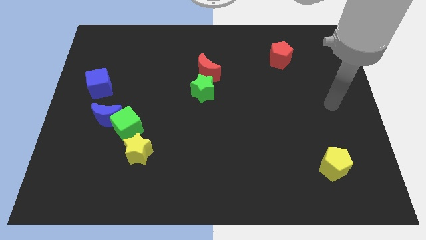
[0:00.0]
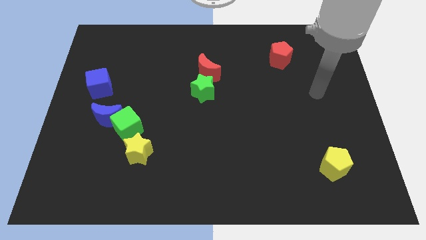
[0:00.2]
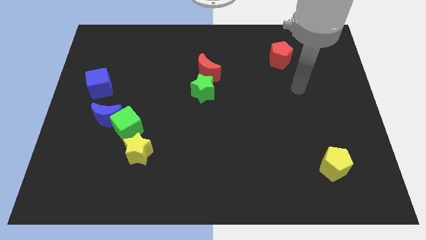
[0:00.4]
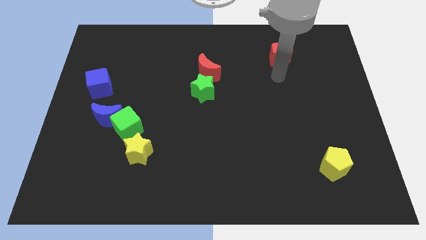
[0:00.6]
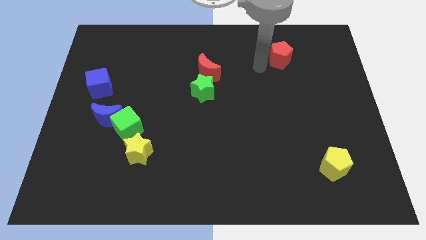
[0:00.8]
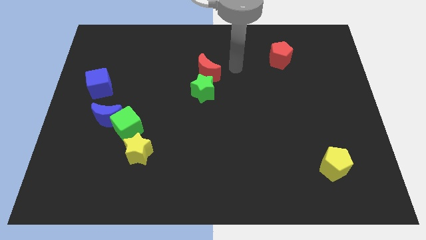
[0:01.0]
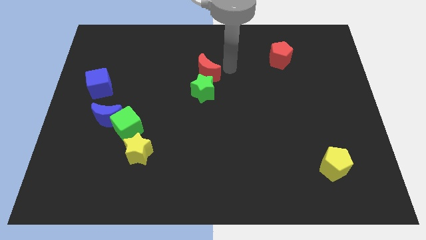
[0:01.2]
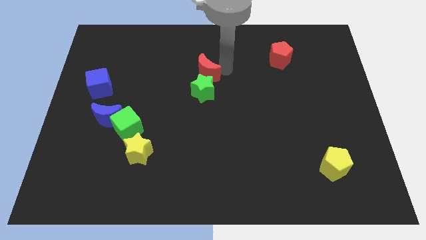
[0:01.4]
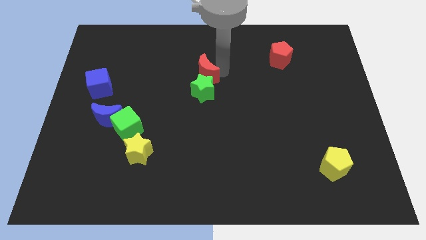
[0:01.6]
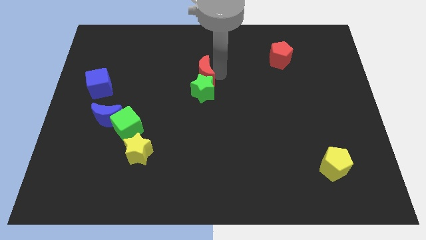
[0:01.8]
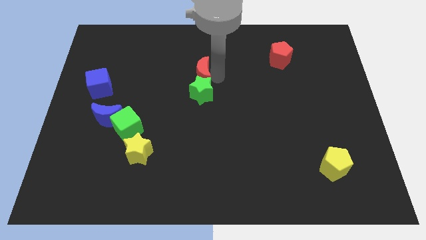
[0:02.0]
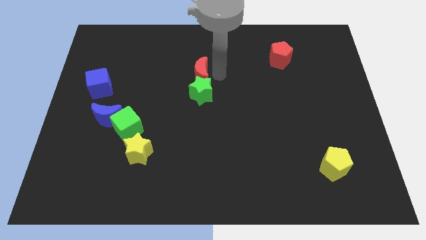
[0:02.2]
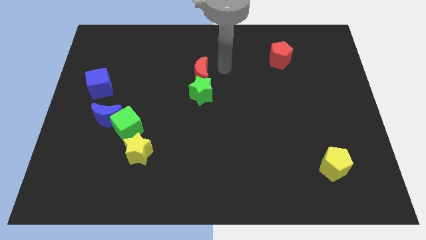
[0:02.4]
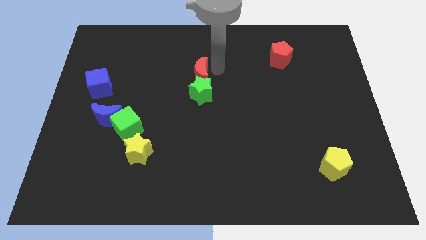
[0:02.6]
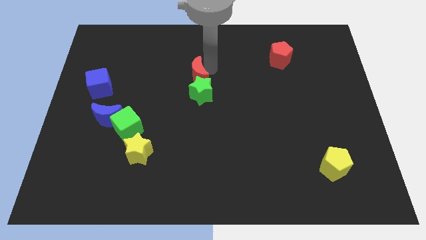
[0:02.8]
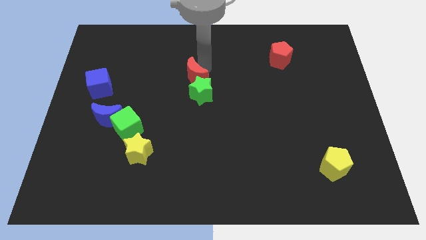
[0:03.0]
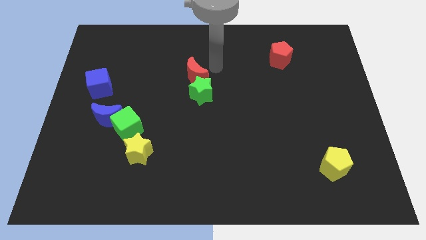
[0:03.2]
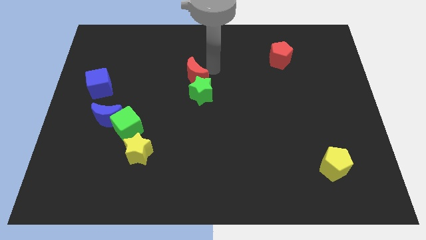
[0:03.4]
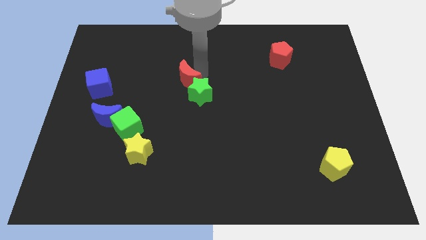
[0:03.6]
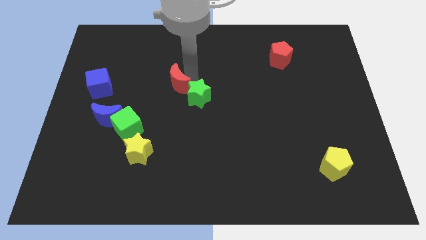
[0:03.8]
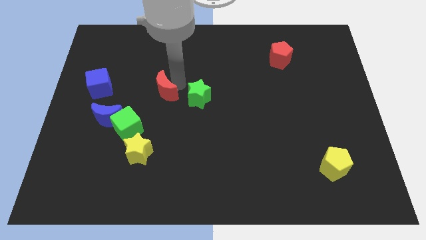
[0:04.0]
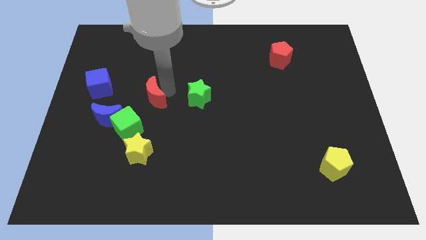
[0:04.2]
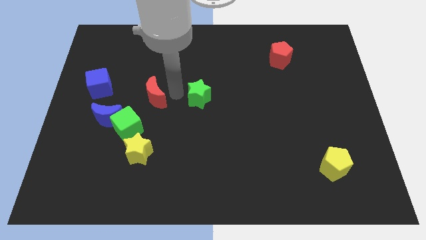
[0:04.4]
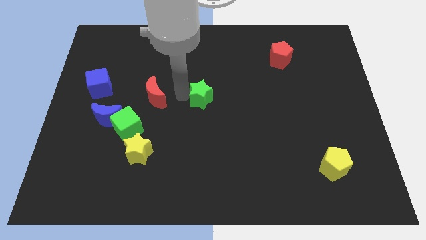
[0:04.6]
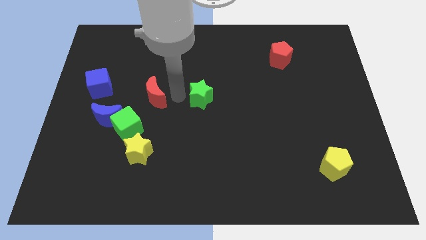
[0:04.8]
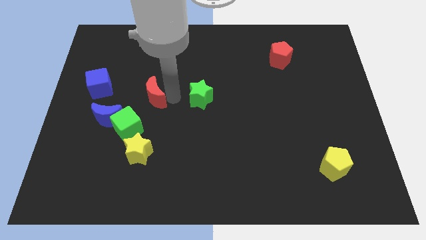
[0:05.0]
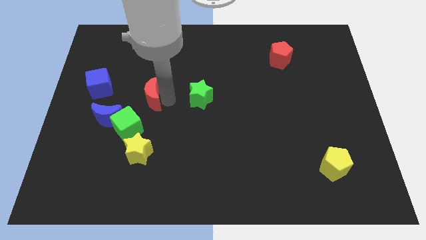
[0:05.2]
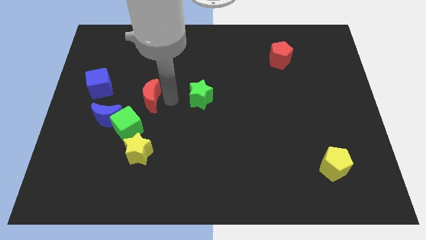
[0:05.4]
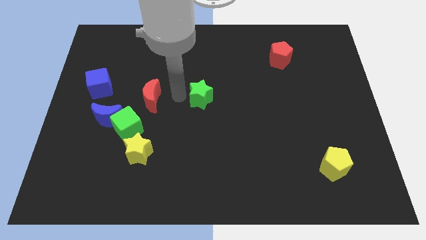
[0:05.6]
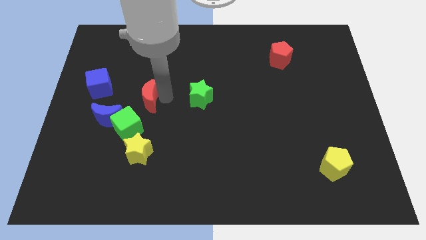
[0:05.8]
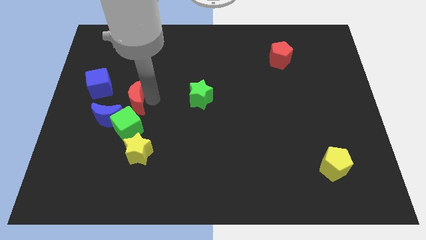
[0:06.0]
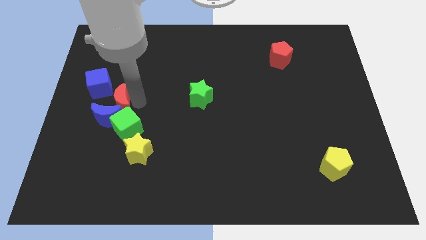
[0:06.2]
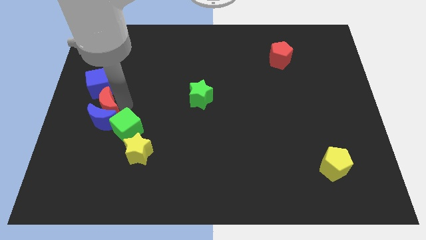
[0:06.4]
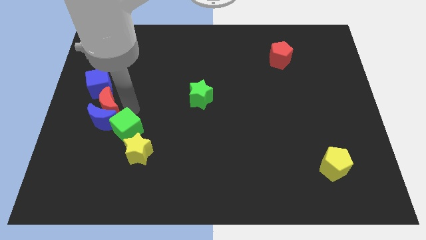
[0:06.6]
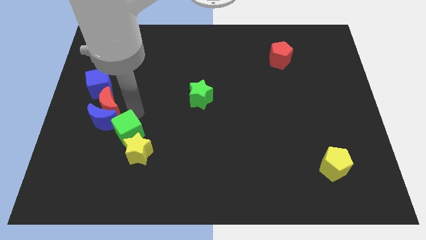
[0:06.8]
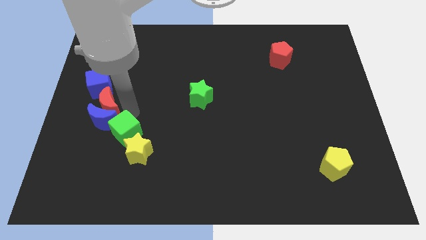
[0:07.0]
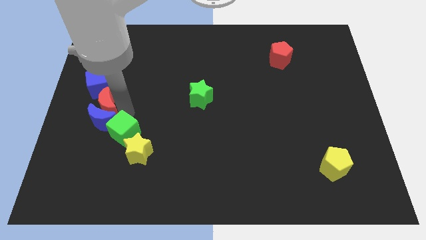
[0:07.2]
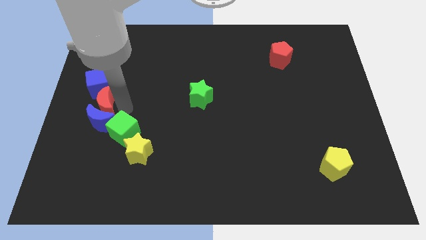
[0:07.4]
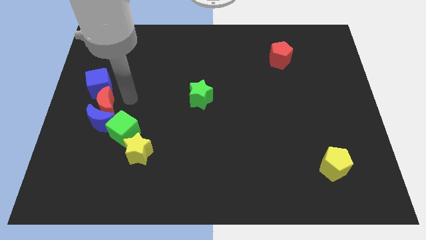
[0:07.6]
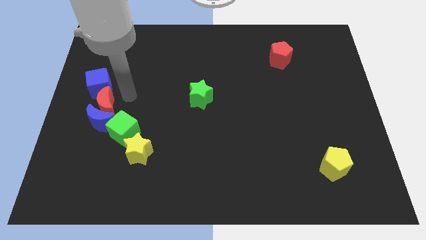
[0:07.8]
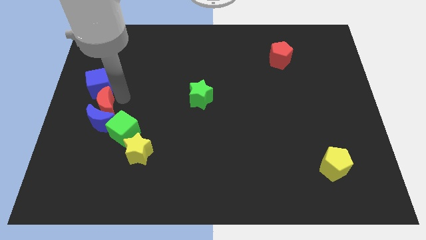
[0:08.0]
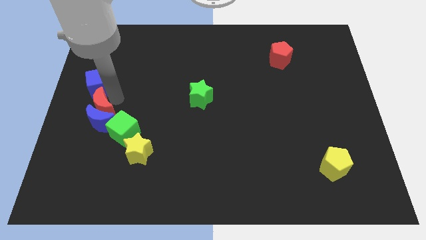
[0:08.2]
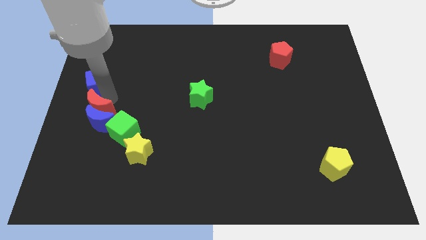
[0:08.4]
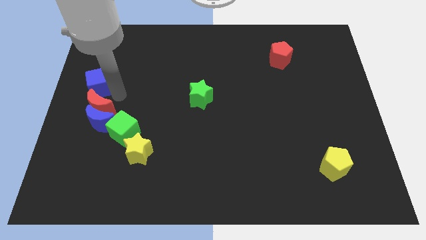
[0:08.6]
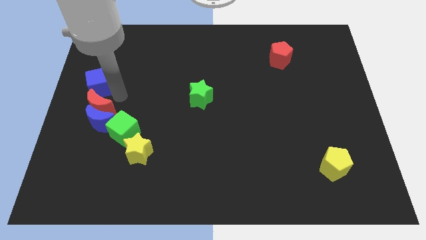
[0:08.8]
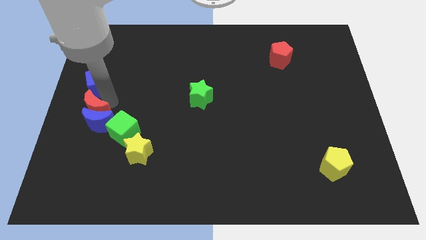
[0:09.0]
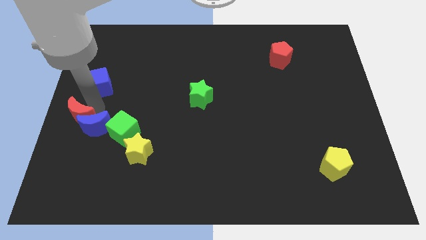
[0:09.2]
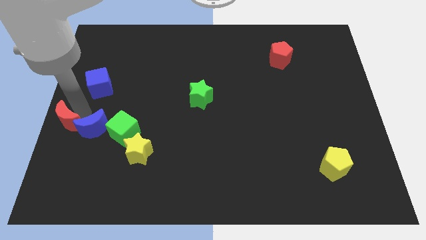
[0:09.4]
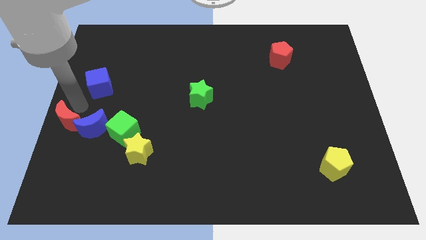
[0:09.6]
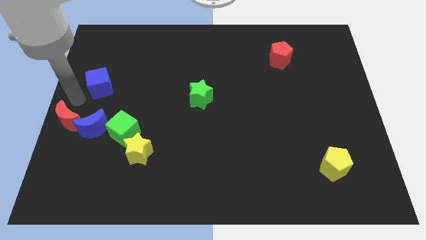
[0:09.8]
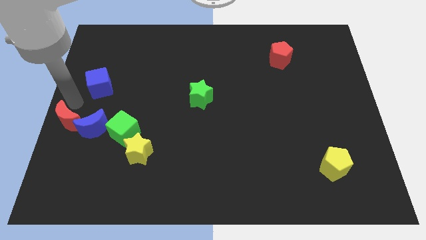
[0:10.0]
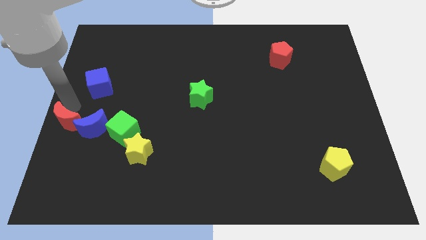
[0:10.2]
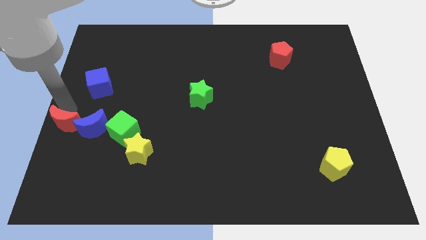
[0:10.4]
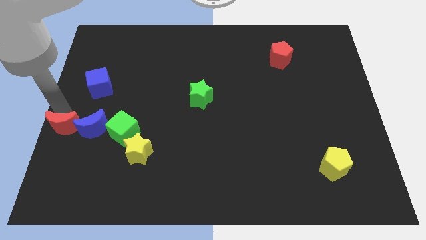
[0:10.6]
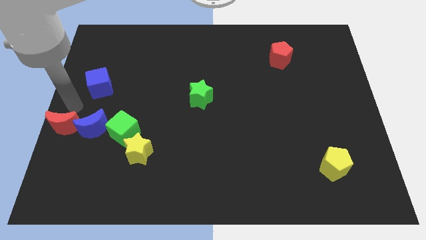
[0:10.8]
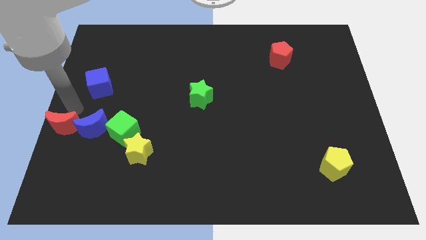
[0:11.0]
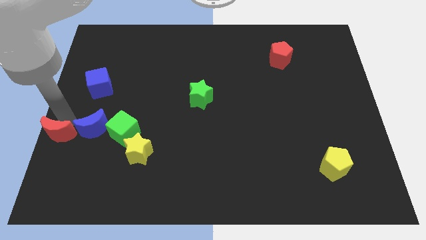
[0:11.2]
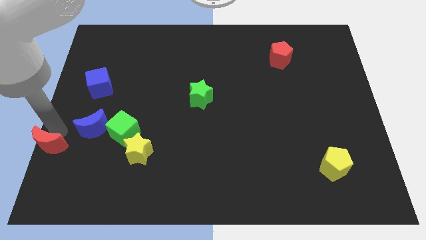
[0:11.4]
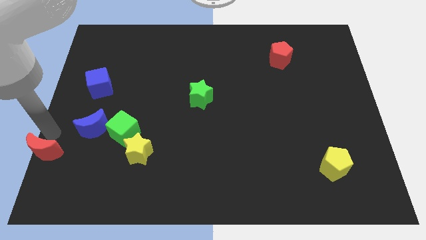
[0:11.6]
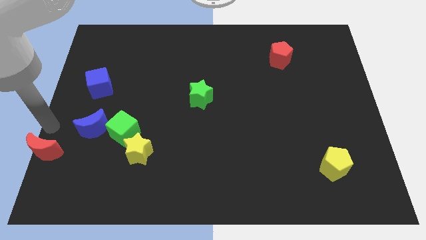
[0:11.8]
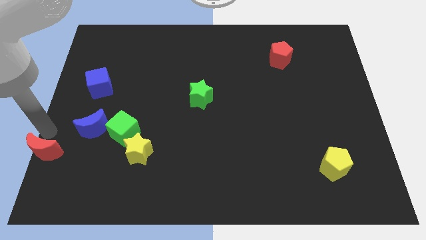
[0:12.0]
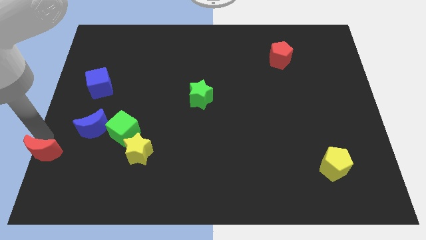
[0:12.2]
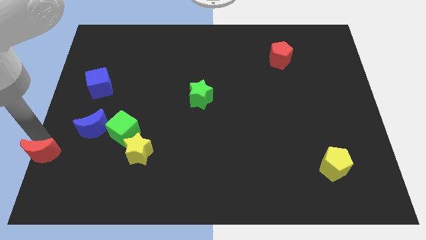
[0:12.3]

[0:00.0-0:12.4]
put the red moon to the lower left corner

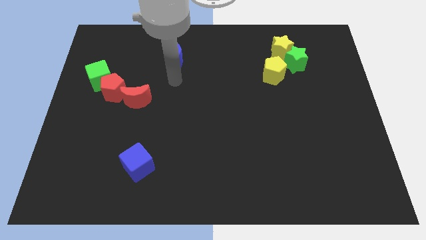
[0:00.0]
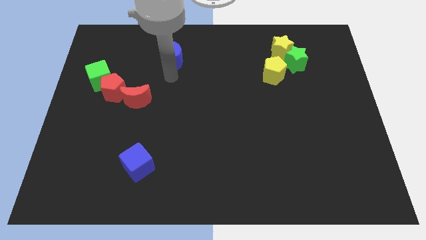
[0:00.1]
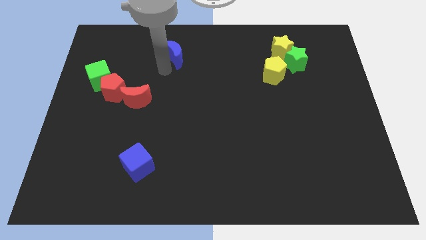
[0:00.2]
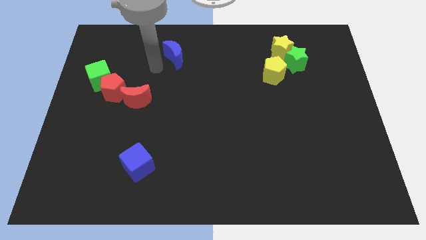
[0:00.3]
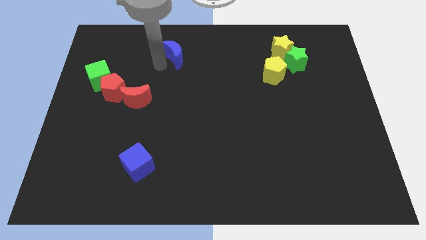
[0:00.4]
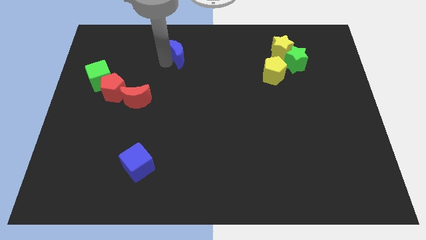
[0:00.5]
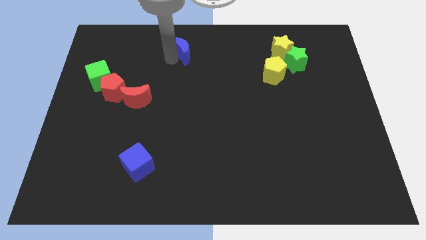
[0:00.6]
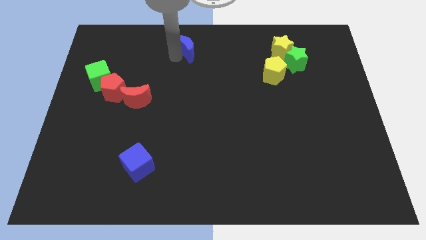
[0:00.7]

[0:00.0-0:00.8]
push the blue moon to the top
